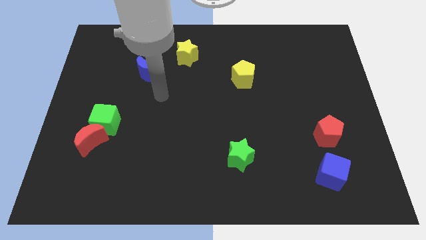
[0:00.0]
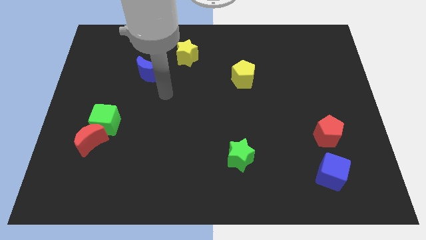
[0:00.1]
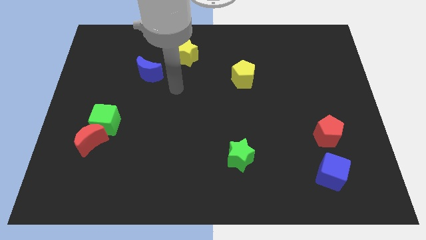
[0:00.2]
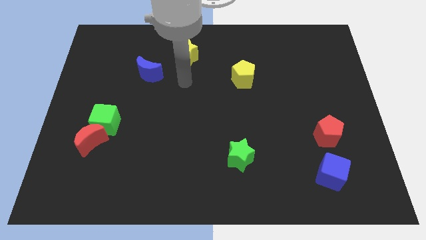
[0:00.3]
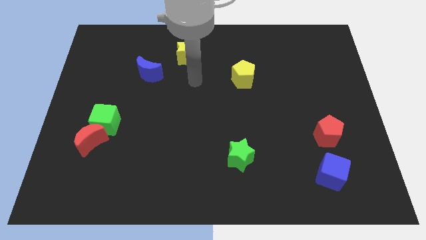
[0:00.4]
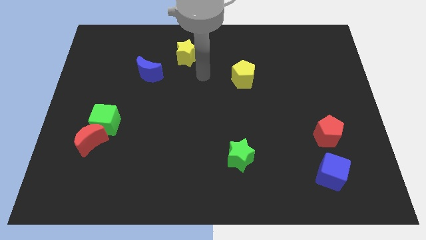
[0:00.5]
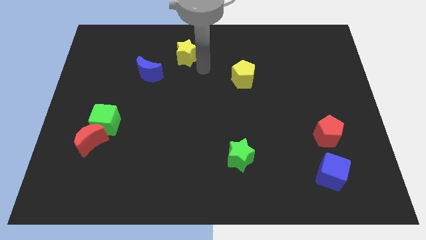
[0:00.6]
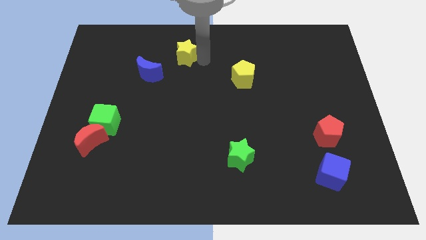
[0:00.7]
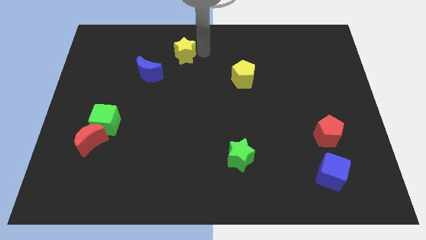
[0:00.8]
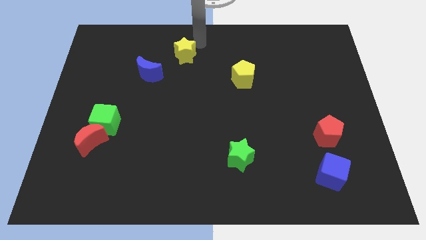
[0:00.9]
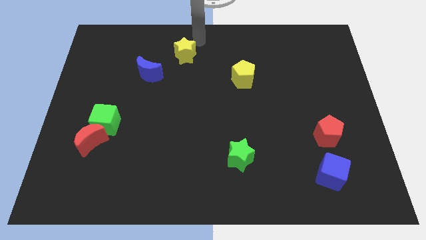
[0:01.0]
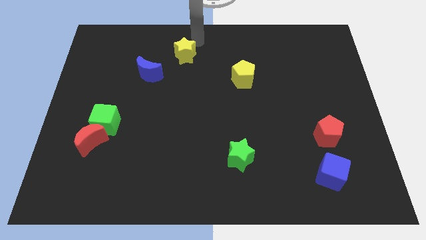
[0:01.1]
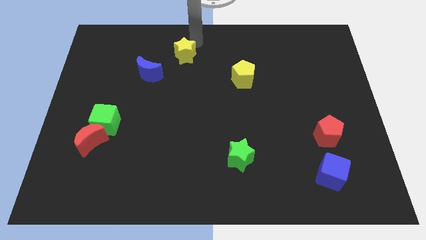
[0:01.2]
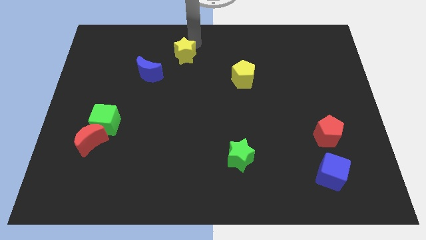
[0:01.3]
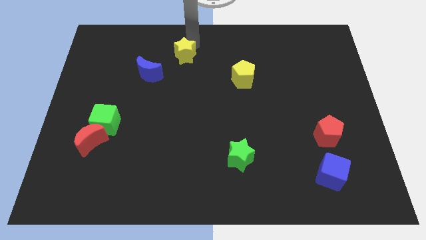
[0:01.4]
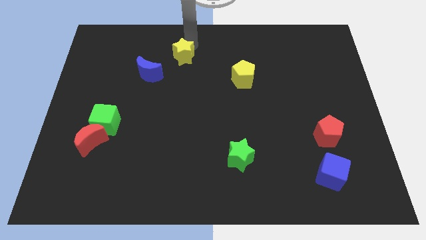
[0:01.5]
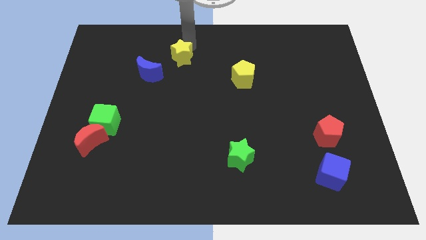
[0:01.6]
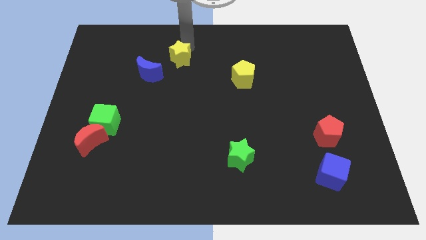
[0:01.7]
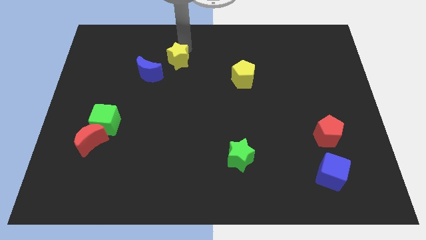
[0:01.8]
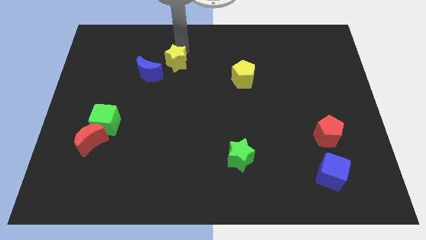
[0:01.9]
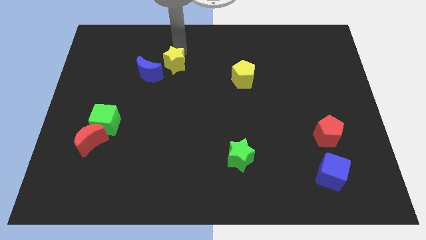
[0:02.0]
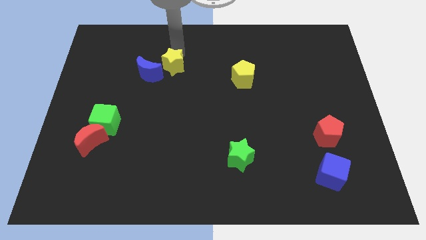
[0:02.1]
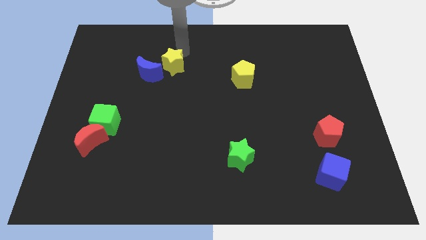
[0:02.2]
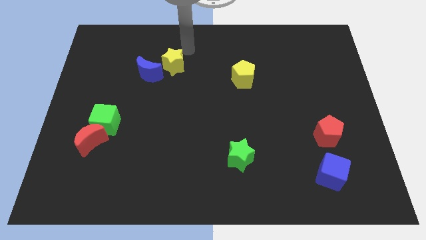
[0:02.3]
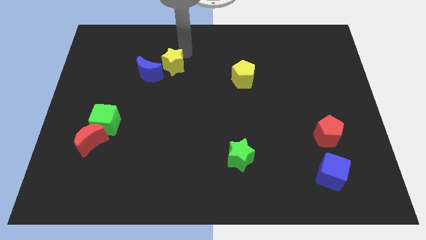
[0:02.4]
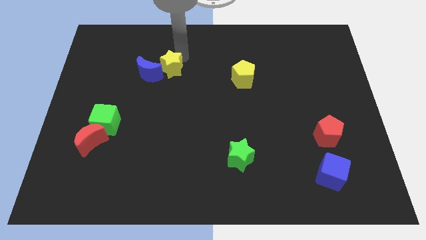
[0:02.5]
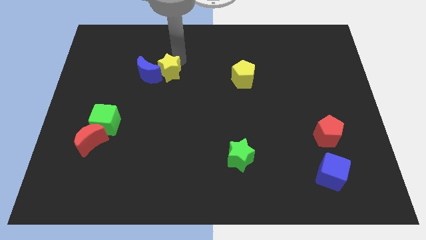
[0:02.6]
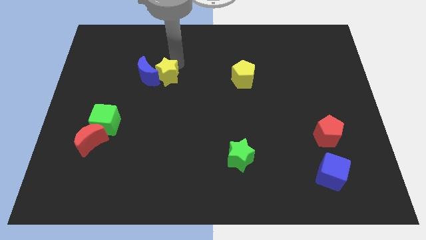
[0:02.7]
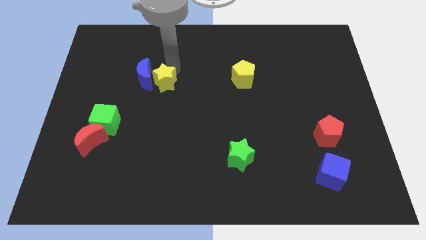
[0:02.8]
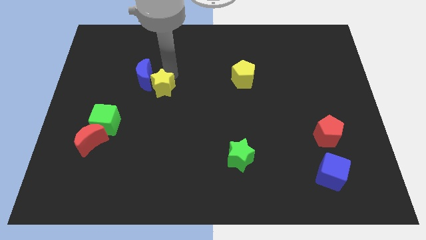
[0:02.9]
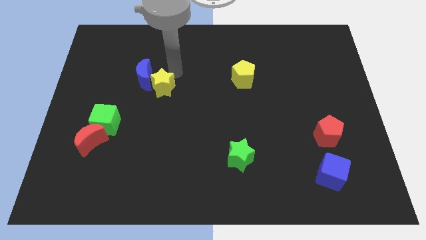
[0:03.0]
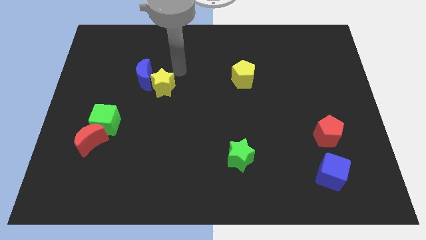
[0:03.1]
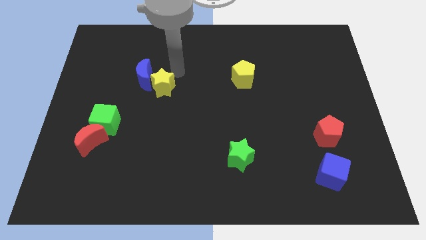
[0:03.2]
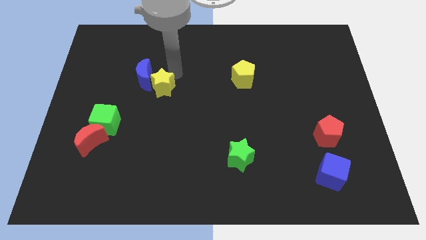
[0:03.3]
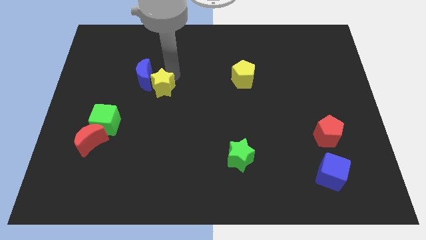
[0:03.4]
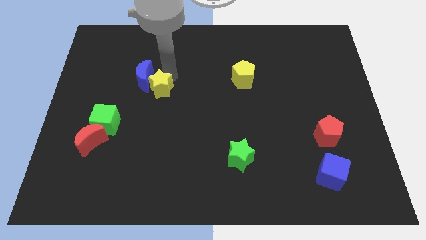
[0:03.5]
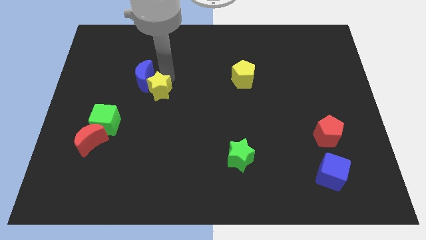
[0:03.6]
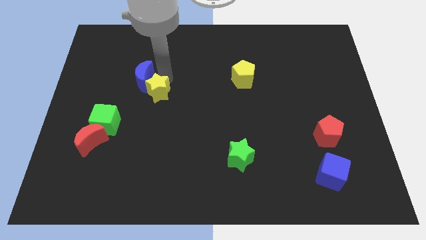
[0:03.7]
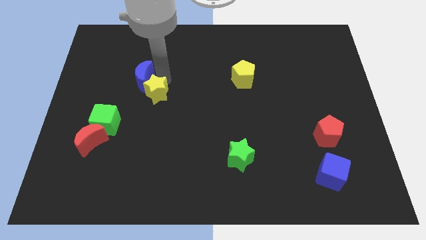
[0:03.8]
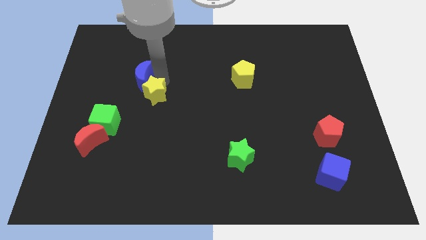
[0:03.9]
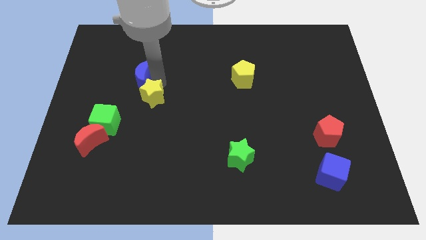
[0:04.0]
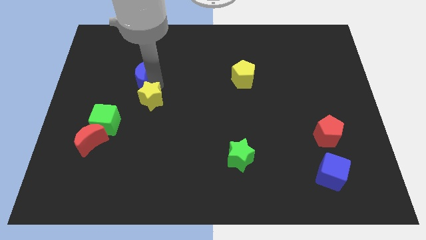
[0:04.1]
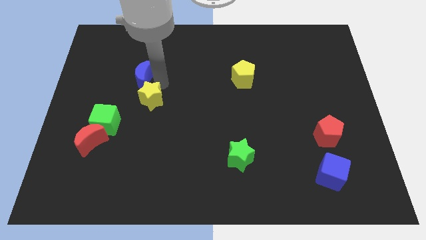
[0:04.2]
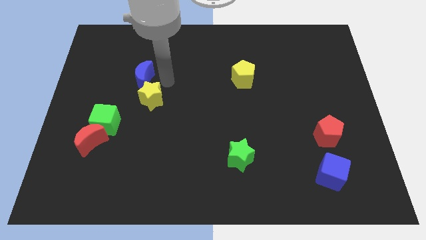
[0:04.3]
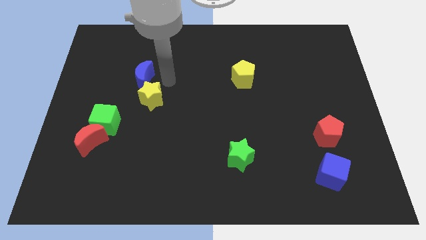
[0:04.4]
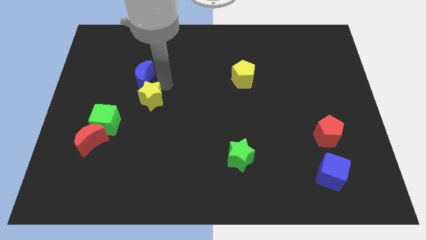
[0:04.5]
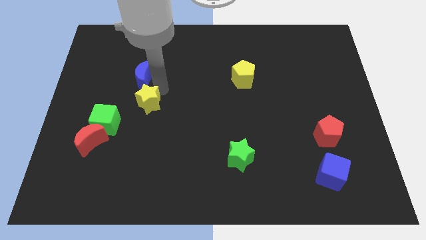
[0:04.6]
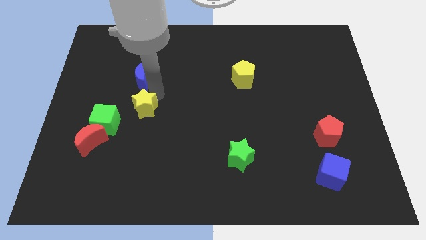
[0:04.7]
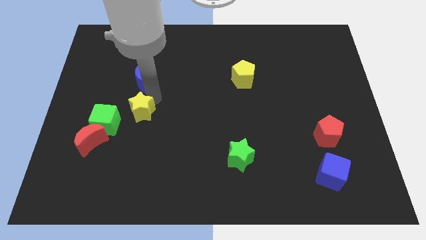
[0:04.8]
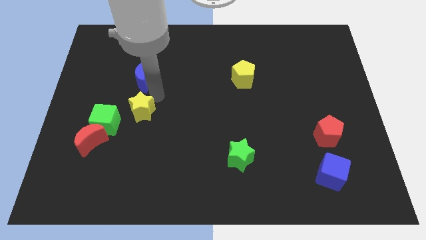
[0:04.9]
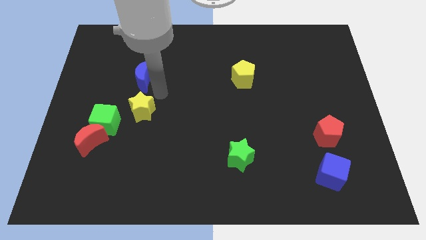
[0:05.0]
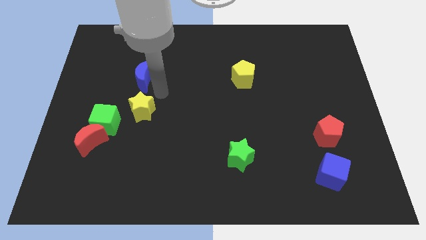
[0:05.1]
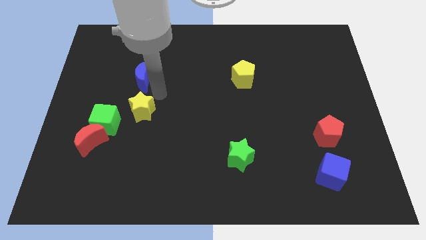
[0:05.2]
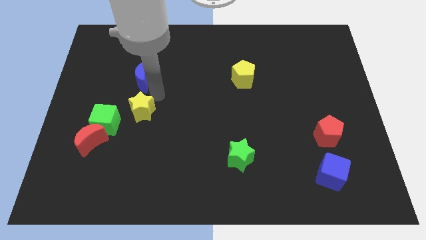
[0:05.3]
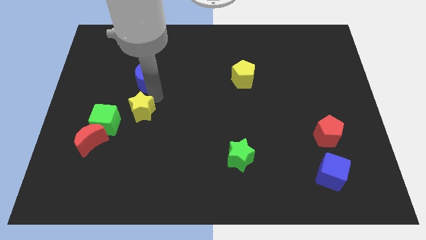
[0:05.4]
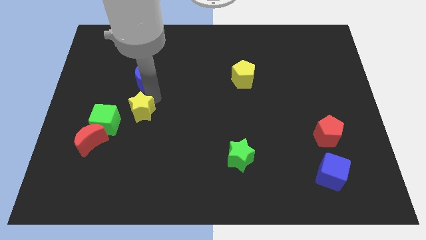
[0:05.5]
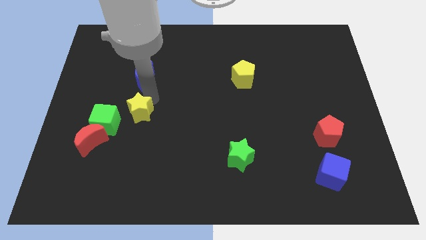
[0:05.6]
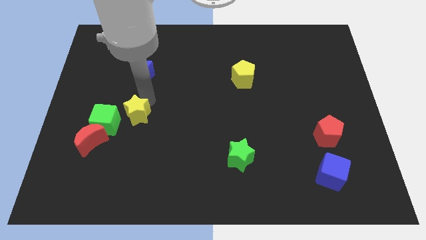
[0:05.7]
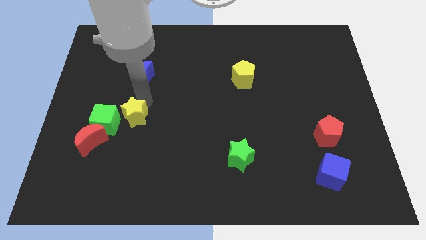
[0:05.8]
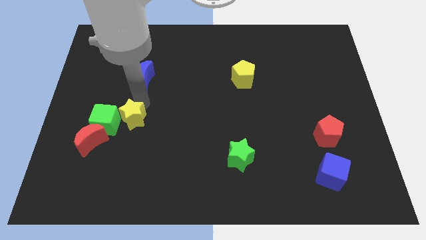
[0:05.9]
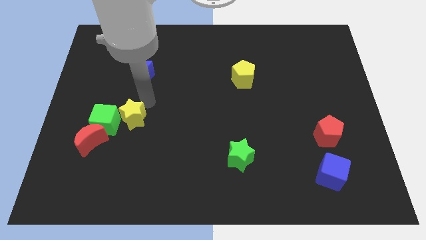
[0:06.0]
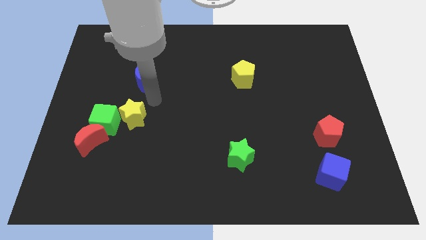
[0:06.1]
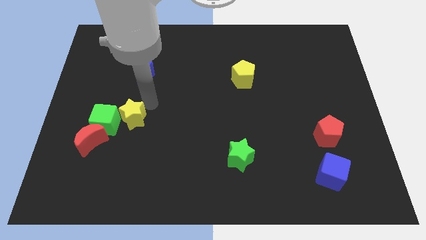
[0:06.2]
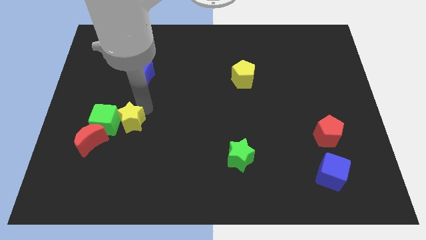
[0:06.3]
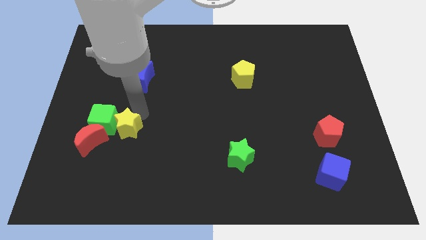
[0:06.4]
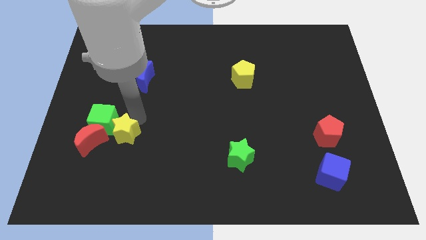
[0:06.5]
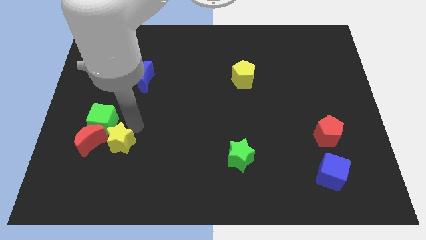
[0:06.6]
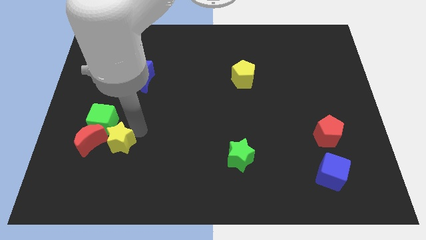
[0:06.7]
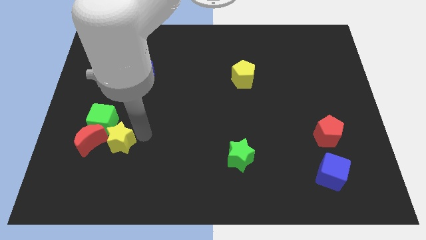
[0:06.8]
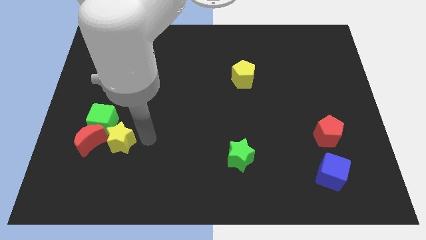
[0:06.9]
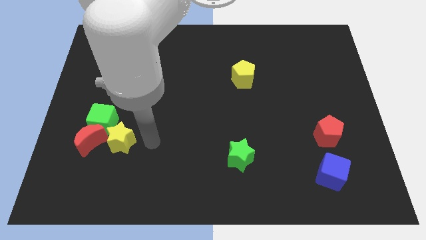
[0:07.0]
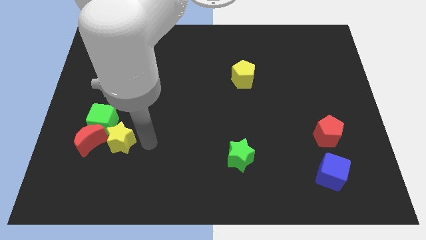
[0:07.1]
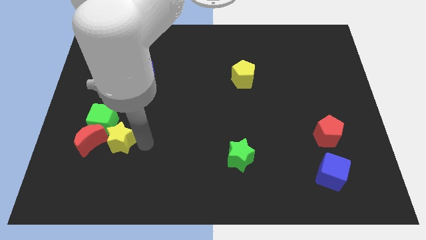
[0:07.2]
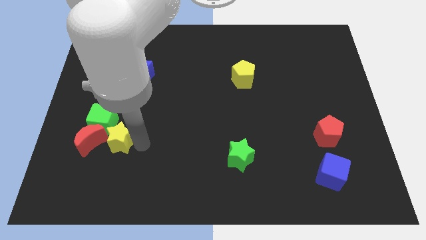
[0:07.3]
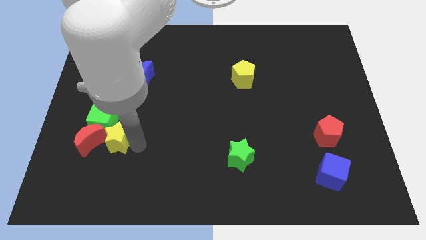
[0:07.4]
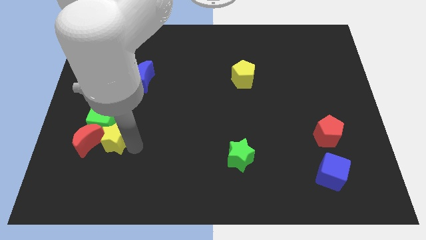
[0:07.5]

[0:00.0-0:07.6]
move the yellow star next to the red moon
